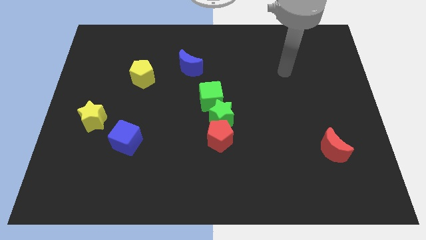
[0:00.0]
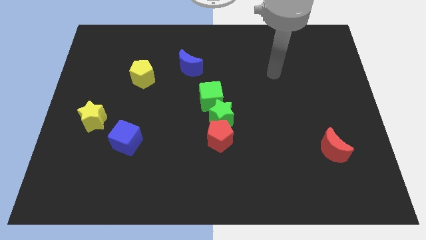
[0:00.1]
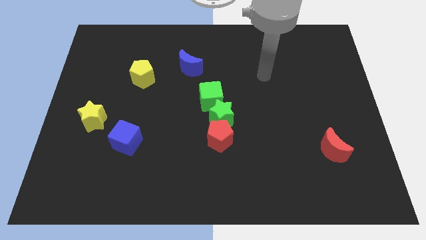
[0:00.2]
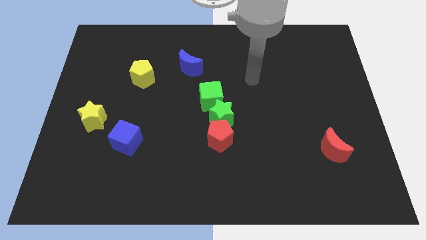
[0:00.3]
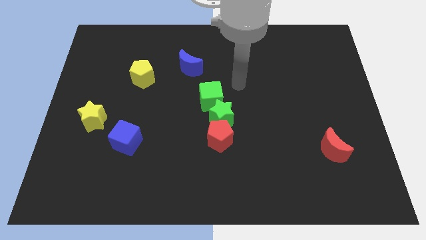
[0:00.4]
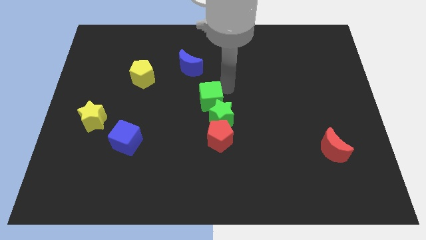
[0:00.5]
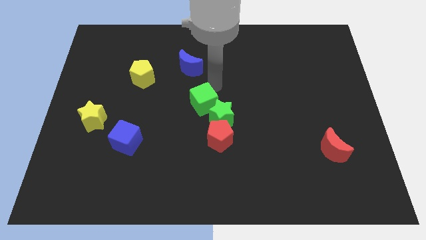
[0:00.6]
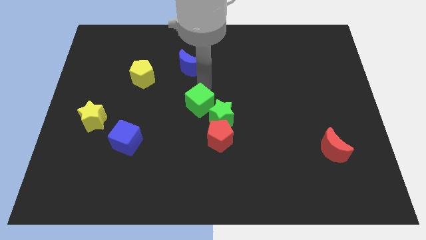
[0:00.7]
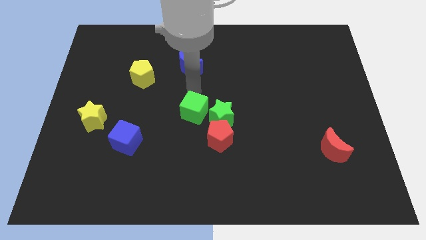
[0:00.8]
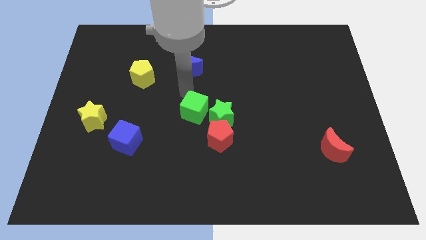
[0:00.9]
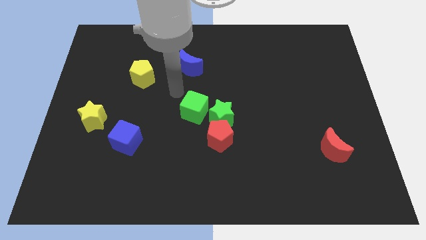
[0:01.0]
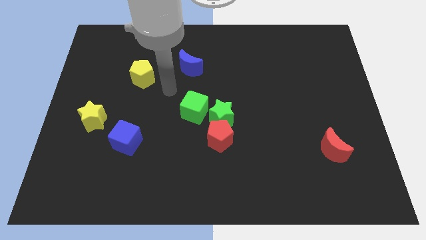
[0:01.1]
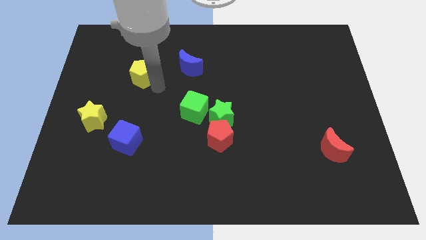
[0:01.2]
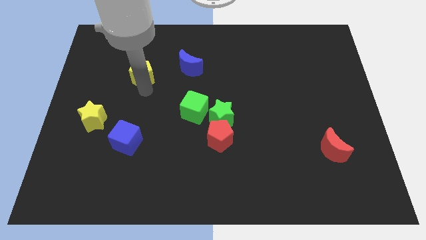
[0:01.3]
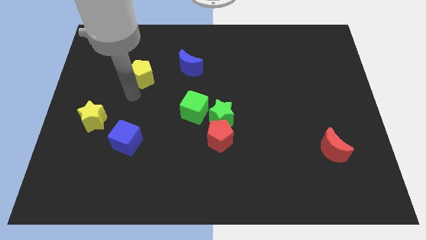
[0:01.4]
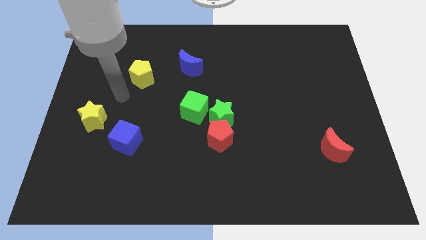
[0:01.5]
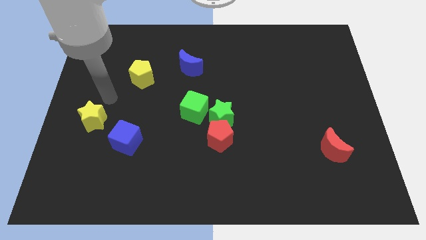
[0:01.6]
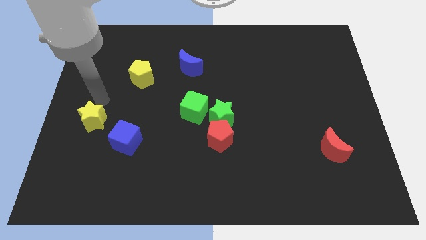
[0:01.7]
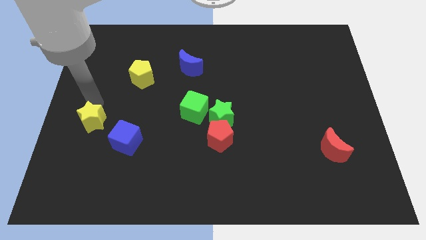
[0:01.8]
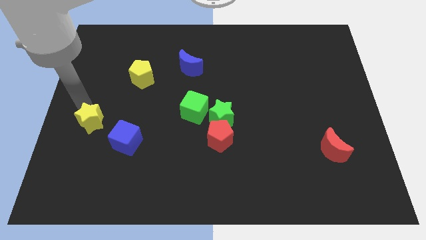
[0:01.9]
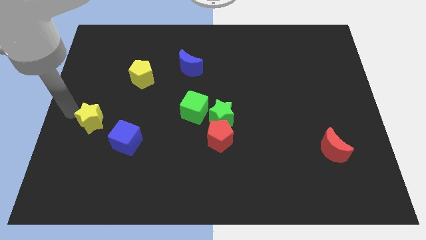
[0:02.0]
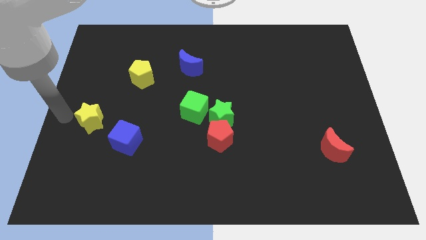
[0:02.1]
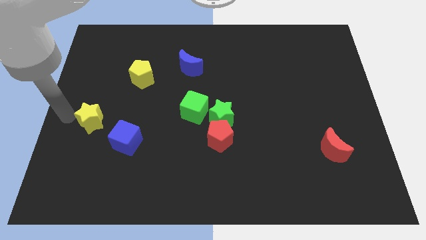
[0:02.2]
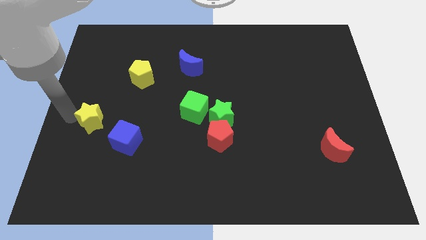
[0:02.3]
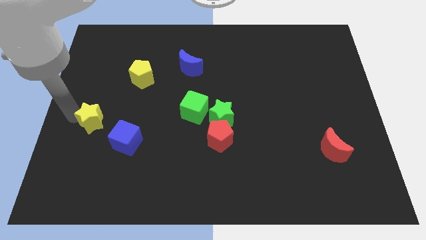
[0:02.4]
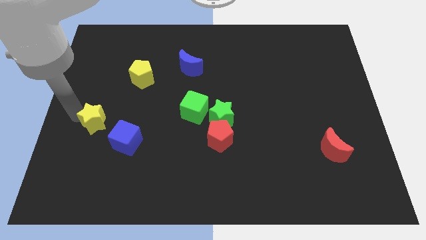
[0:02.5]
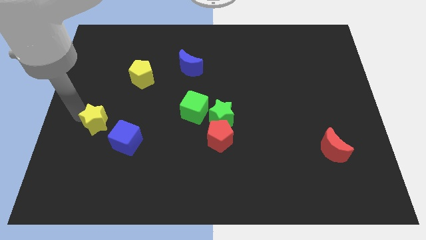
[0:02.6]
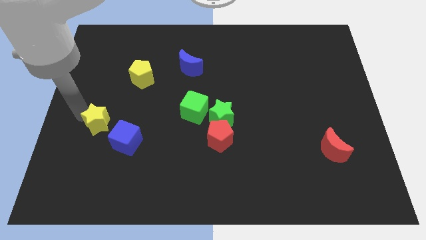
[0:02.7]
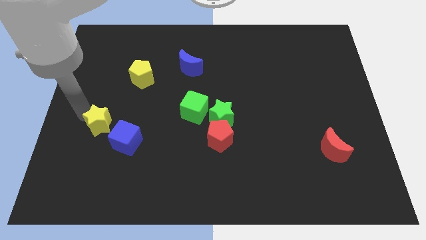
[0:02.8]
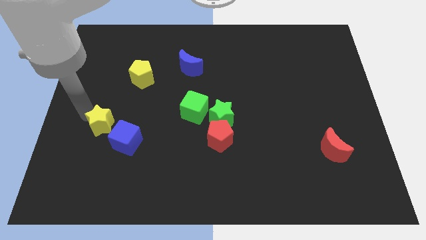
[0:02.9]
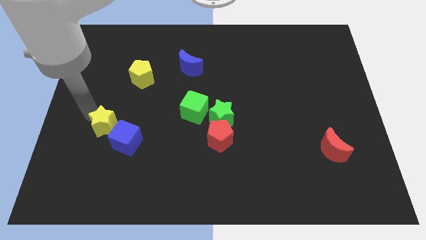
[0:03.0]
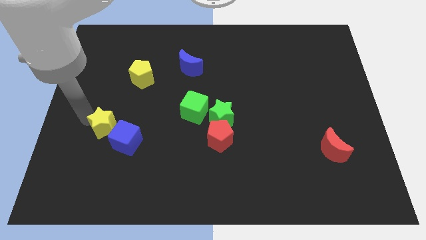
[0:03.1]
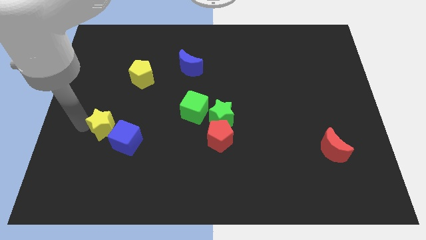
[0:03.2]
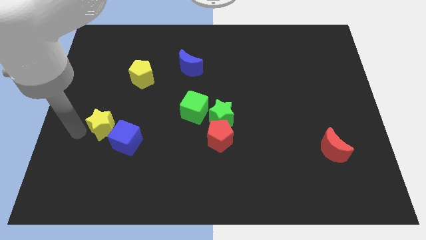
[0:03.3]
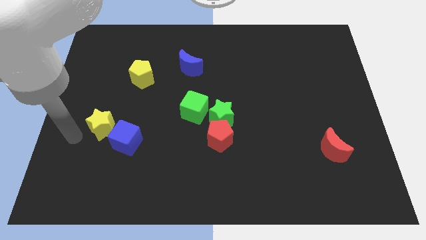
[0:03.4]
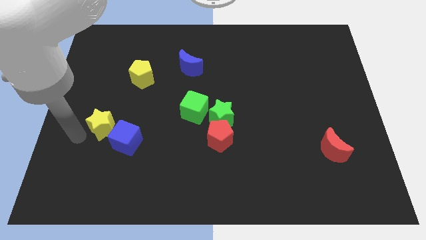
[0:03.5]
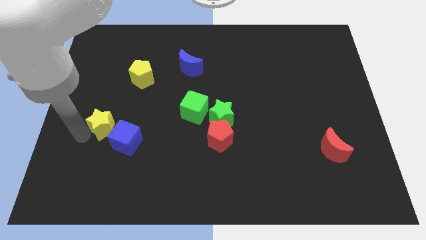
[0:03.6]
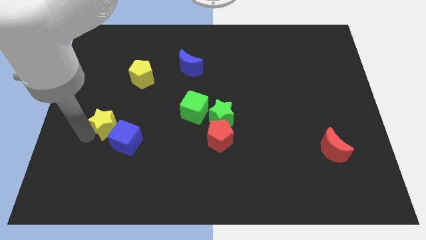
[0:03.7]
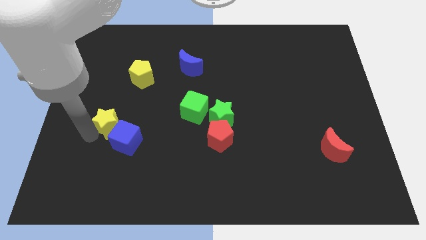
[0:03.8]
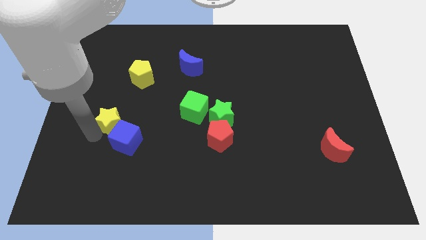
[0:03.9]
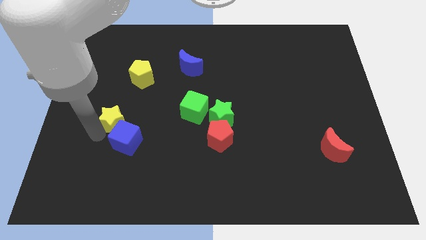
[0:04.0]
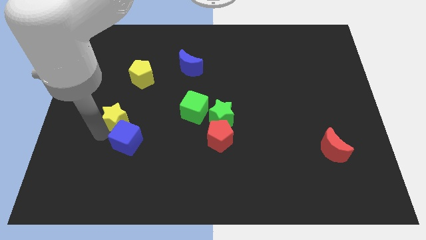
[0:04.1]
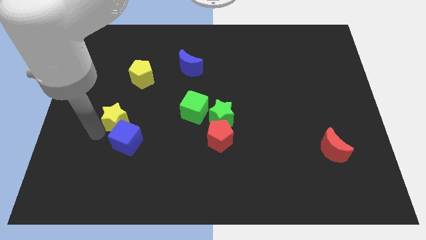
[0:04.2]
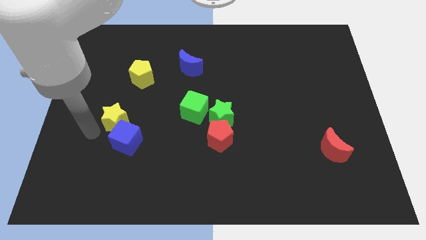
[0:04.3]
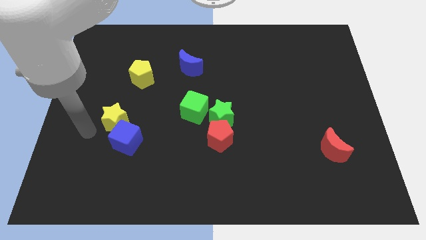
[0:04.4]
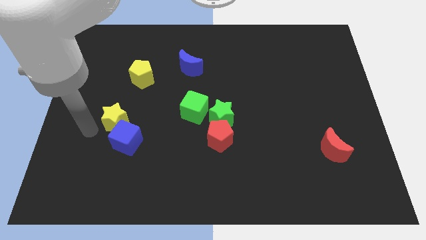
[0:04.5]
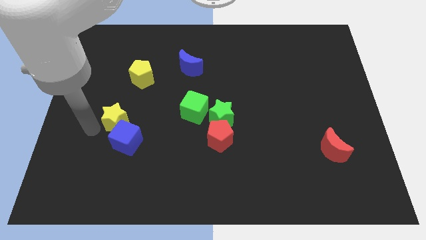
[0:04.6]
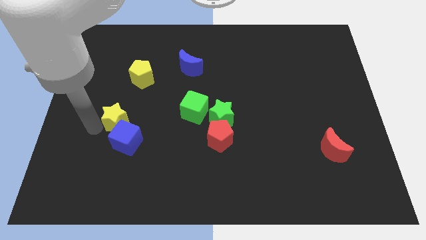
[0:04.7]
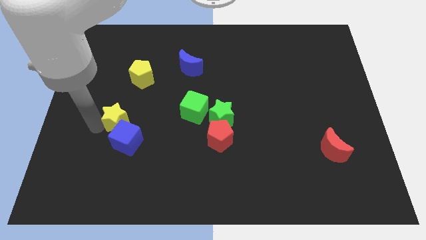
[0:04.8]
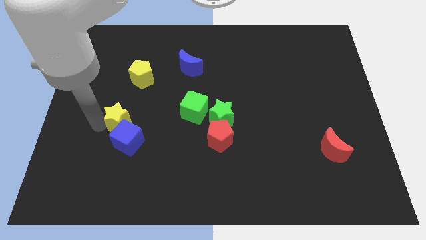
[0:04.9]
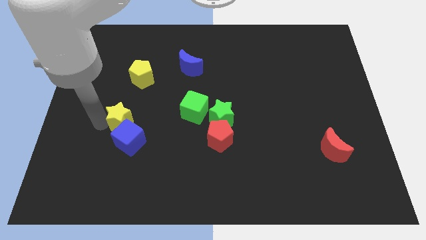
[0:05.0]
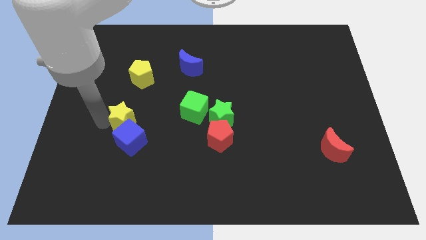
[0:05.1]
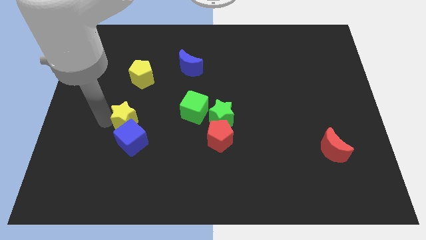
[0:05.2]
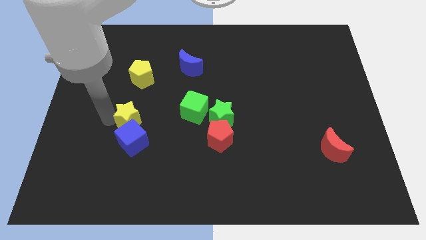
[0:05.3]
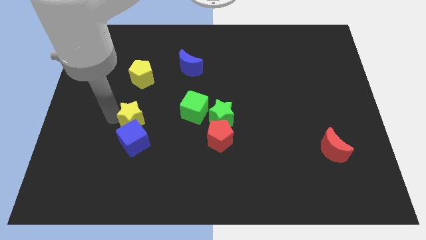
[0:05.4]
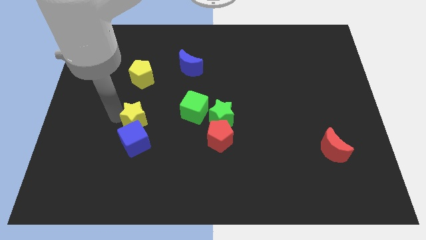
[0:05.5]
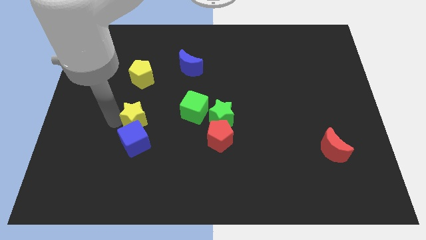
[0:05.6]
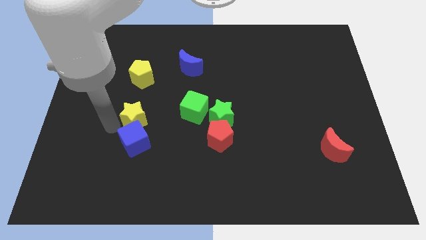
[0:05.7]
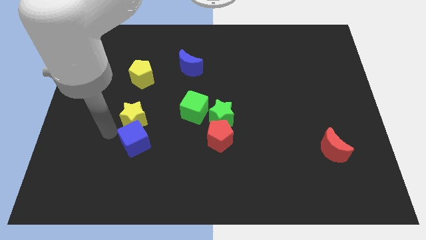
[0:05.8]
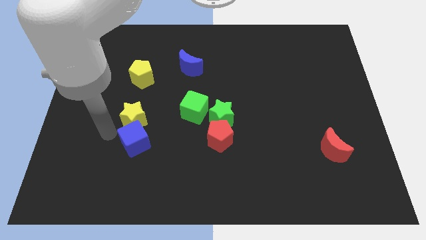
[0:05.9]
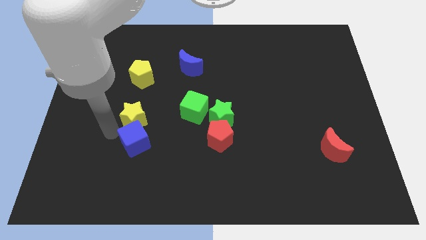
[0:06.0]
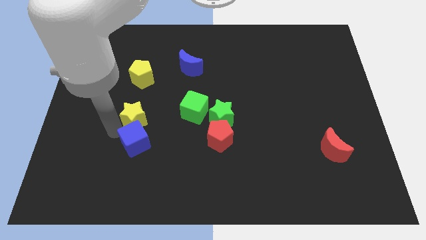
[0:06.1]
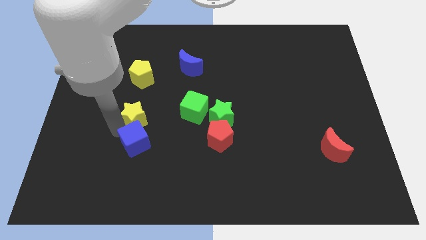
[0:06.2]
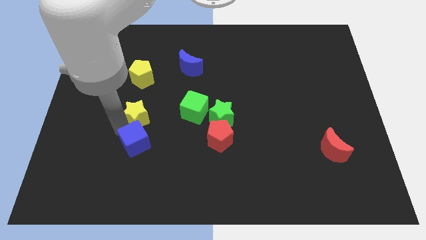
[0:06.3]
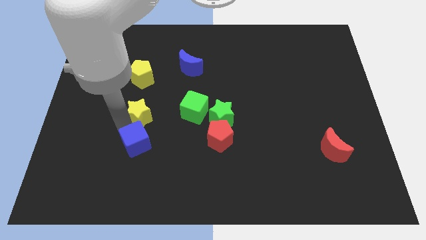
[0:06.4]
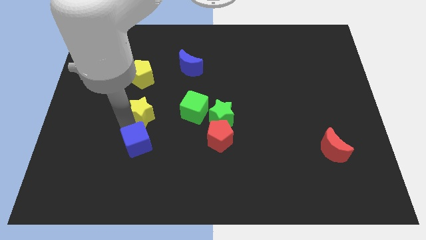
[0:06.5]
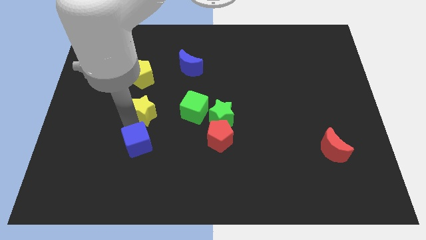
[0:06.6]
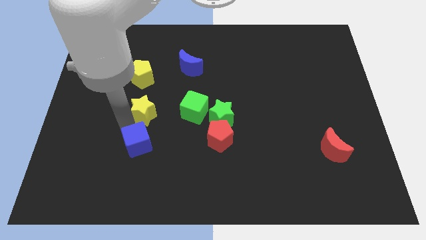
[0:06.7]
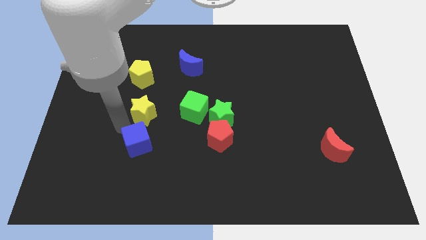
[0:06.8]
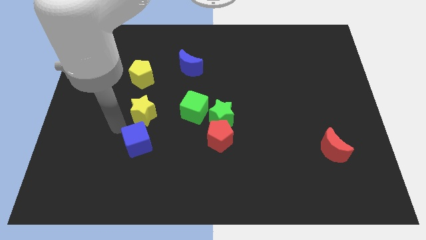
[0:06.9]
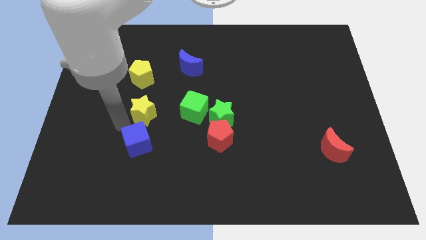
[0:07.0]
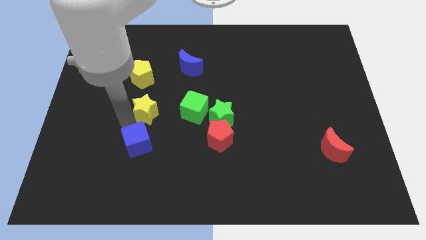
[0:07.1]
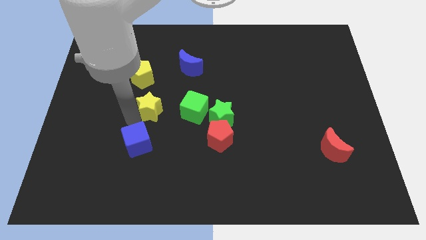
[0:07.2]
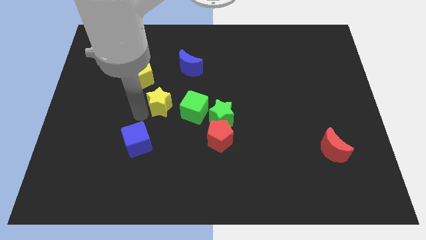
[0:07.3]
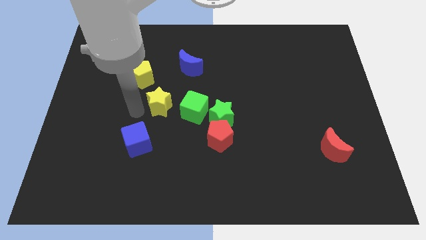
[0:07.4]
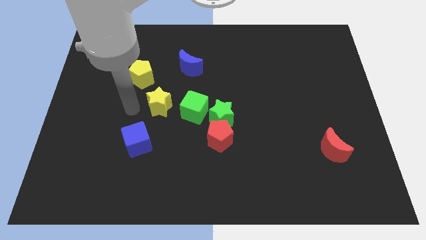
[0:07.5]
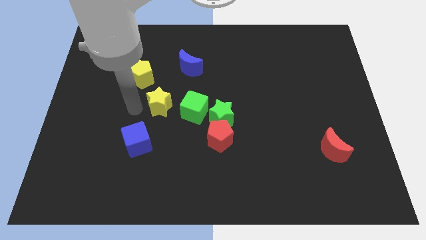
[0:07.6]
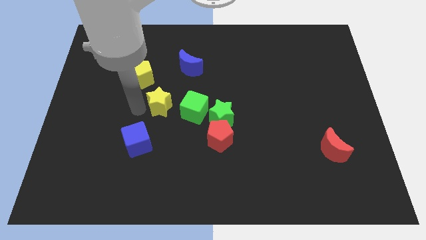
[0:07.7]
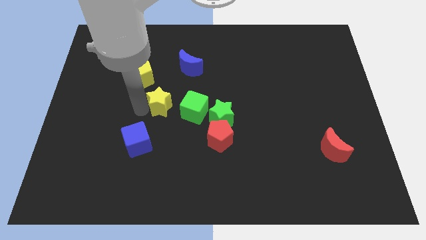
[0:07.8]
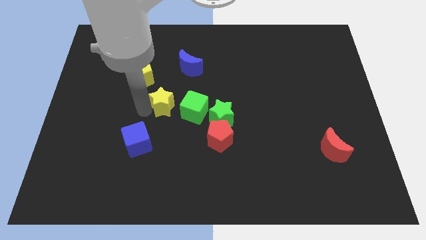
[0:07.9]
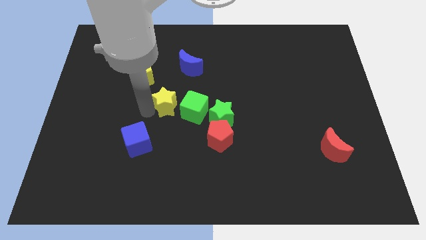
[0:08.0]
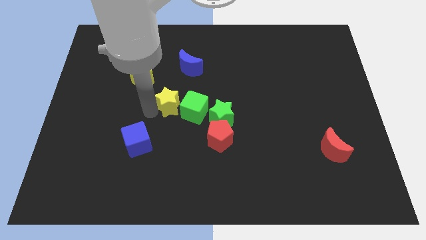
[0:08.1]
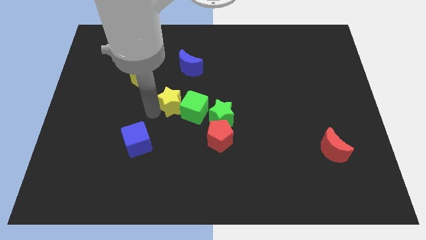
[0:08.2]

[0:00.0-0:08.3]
push the yellow star close to the green cube
